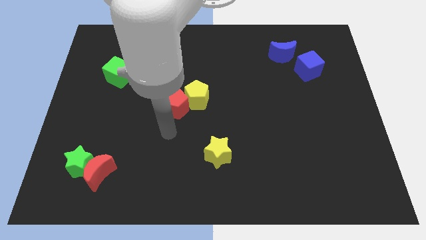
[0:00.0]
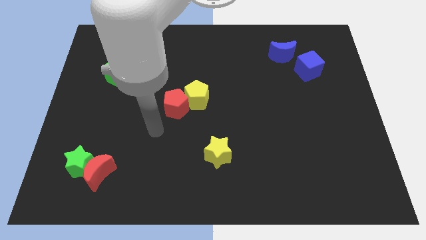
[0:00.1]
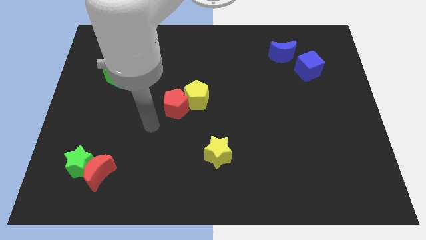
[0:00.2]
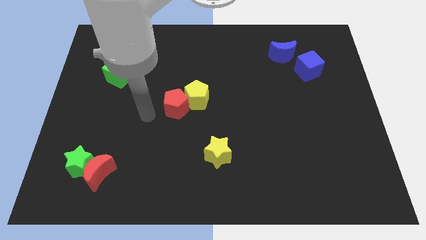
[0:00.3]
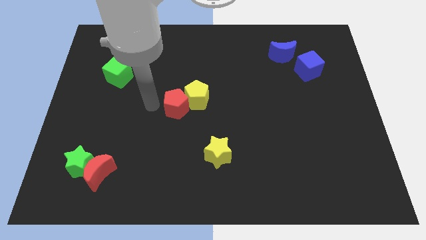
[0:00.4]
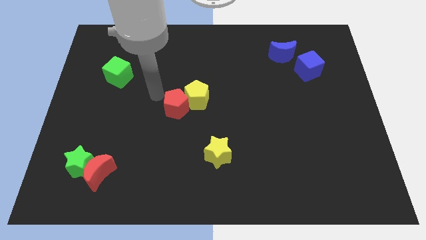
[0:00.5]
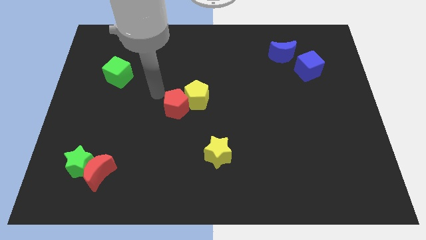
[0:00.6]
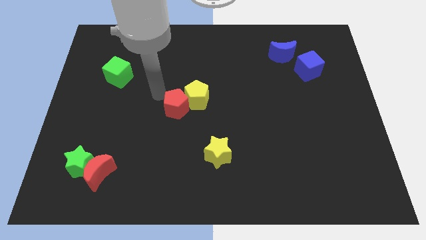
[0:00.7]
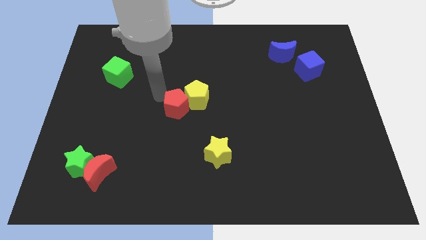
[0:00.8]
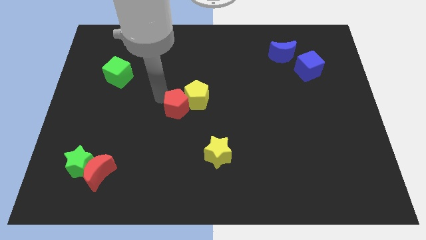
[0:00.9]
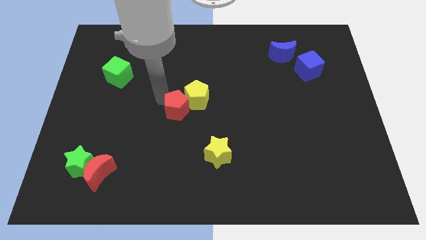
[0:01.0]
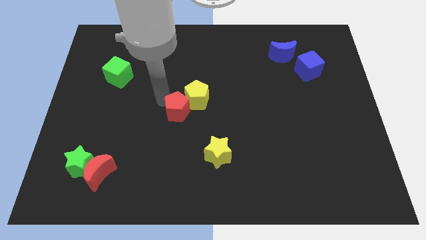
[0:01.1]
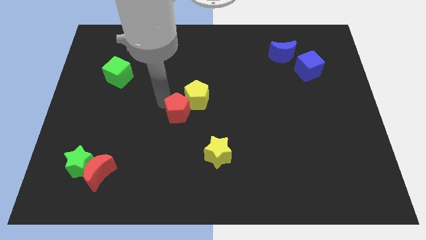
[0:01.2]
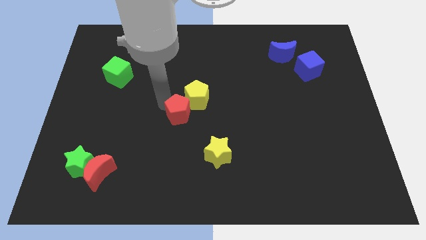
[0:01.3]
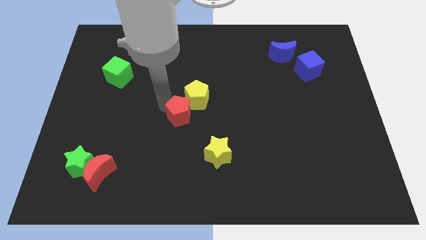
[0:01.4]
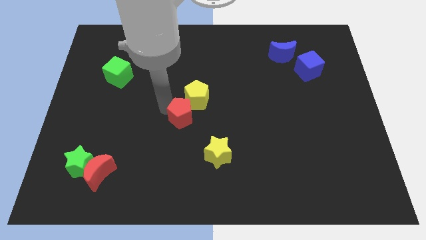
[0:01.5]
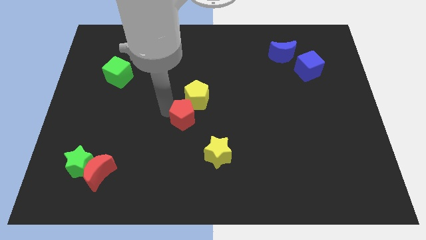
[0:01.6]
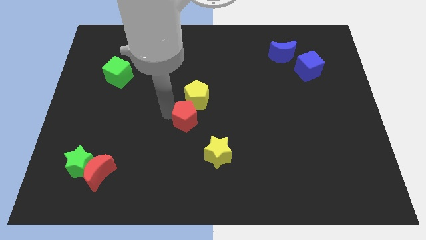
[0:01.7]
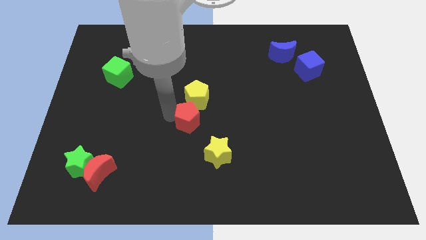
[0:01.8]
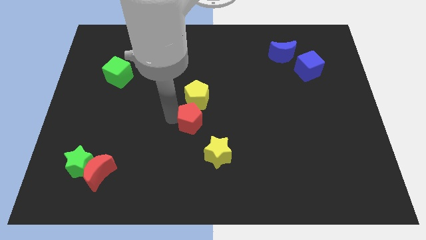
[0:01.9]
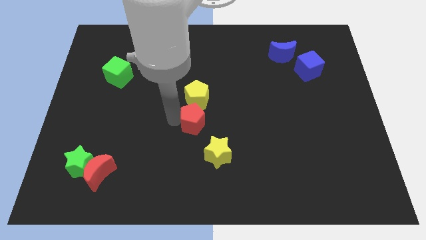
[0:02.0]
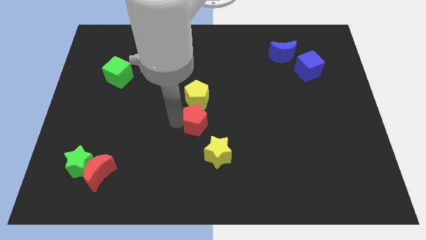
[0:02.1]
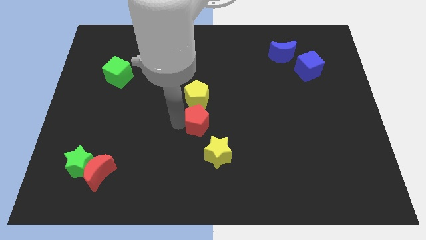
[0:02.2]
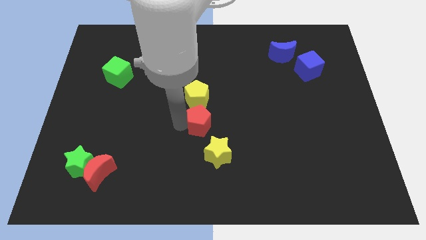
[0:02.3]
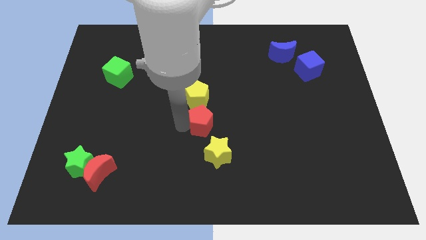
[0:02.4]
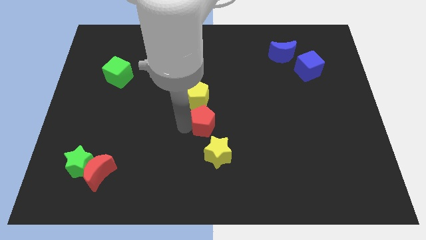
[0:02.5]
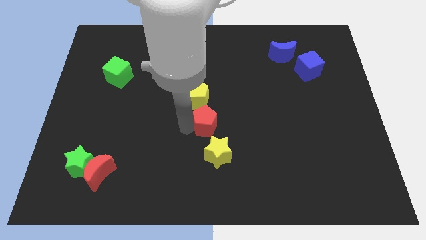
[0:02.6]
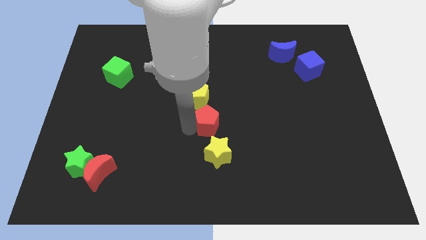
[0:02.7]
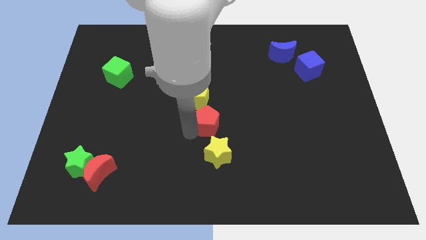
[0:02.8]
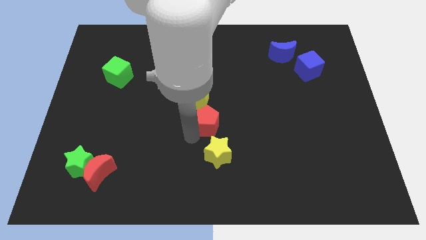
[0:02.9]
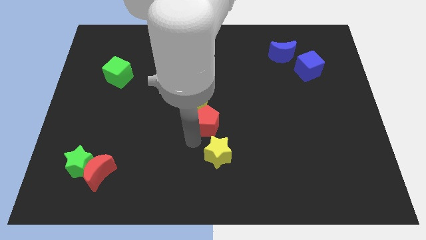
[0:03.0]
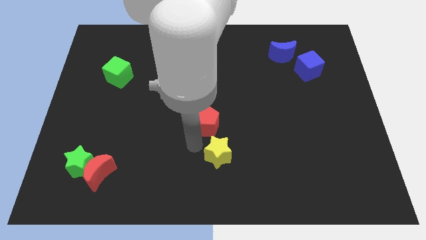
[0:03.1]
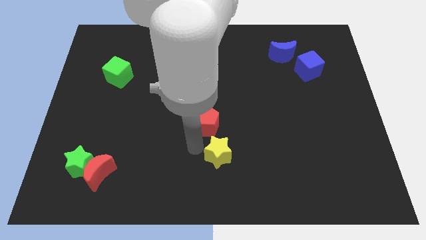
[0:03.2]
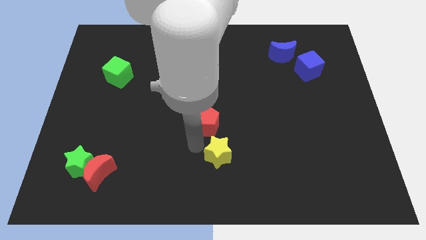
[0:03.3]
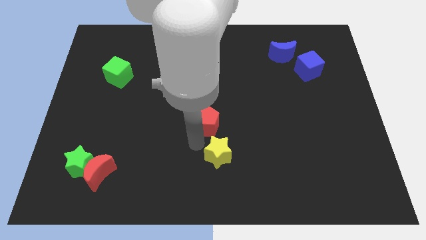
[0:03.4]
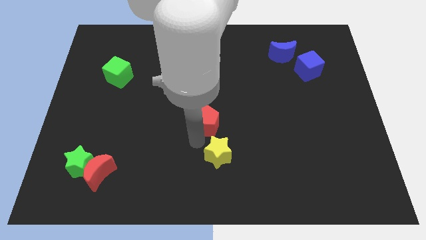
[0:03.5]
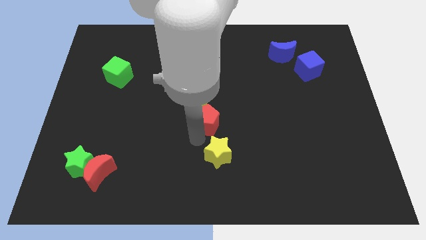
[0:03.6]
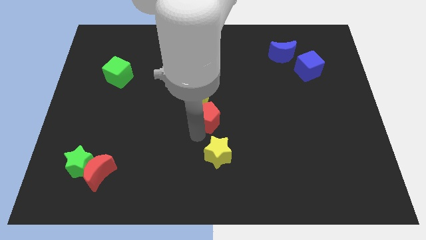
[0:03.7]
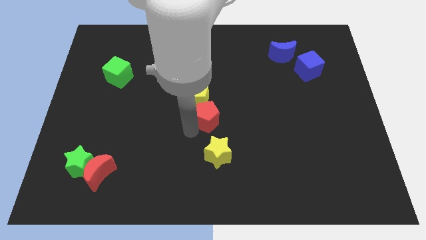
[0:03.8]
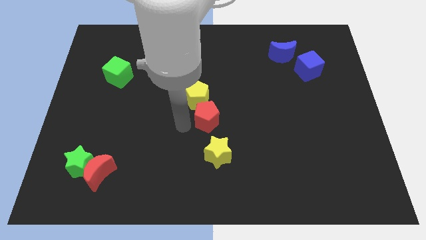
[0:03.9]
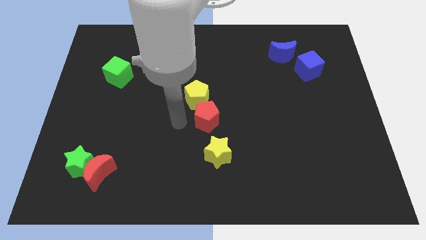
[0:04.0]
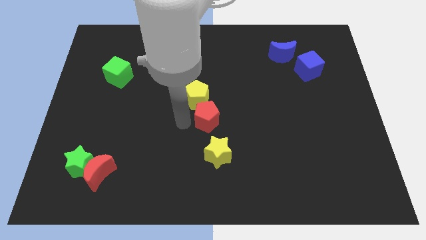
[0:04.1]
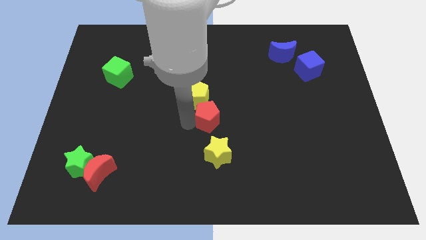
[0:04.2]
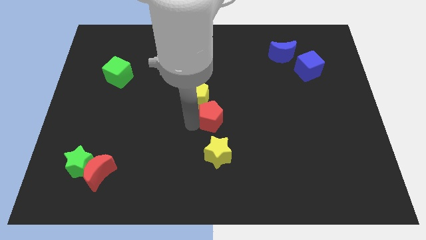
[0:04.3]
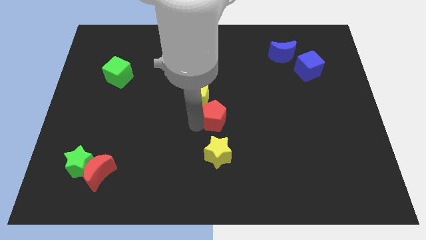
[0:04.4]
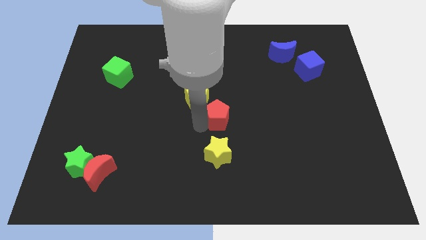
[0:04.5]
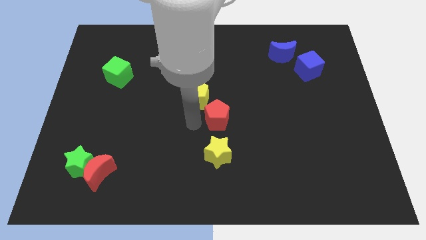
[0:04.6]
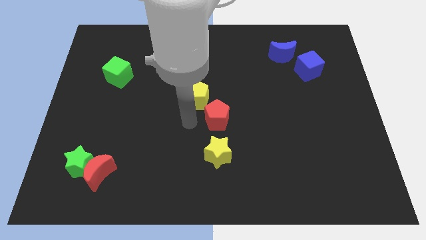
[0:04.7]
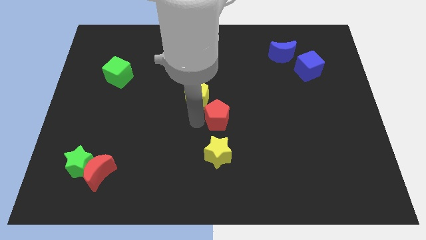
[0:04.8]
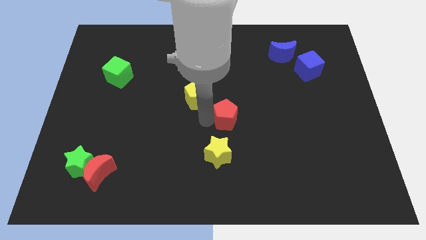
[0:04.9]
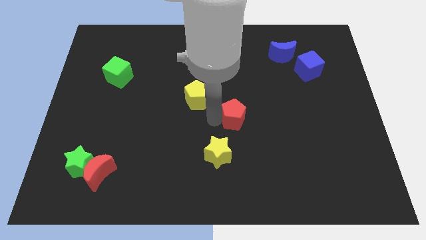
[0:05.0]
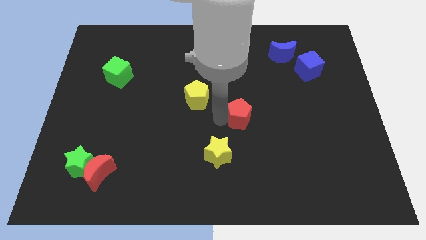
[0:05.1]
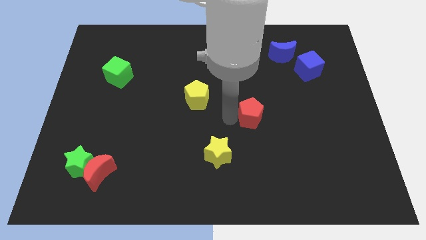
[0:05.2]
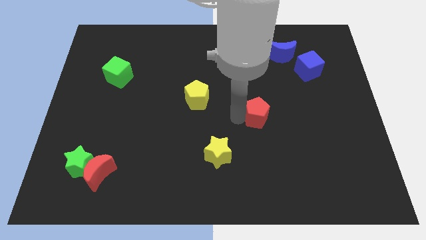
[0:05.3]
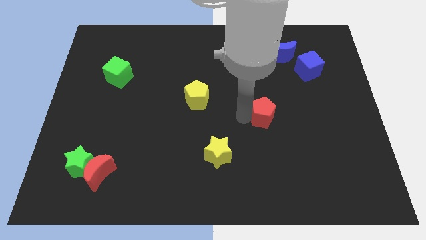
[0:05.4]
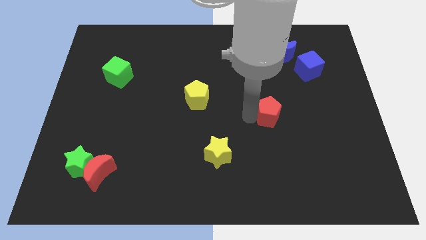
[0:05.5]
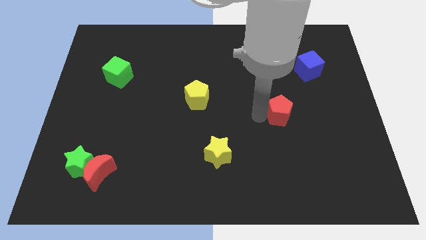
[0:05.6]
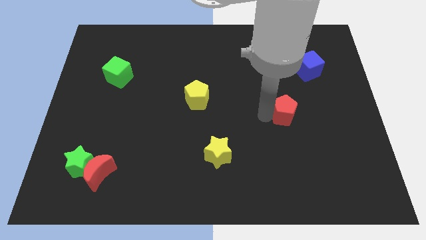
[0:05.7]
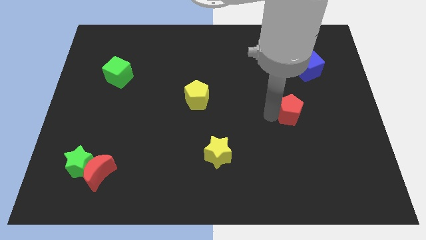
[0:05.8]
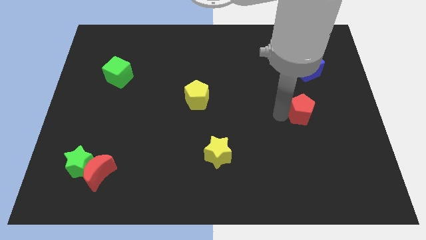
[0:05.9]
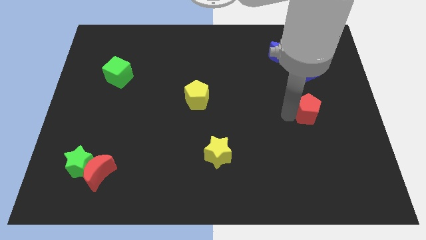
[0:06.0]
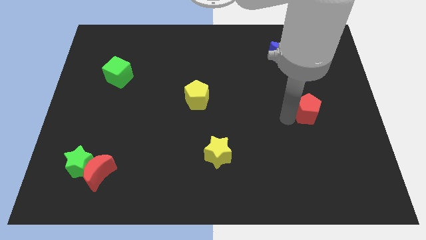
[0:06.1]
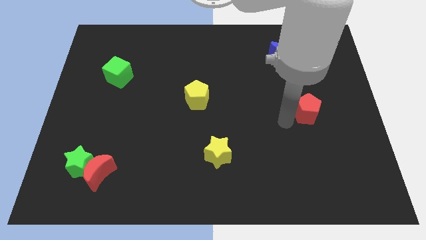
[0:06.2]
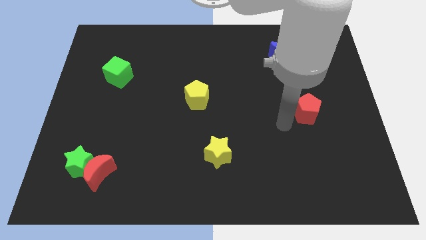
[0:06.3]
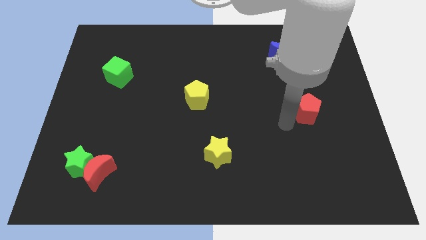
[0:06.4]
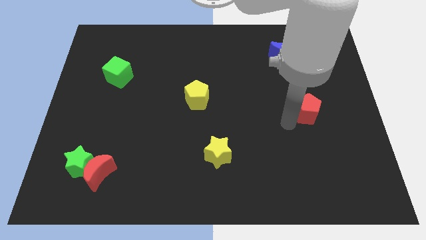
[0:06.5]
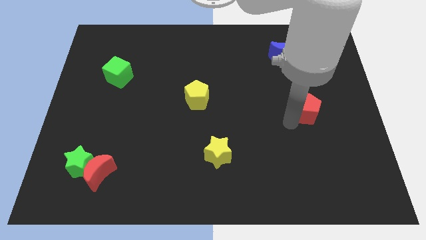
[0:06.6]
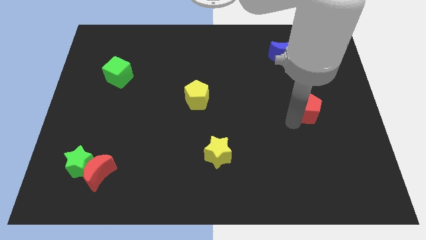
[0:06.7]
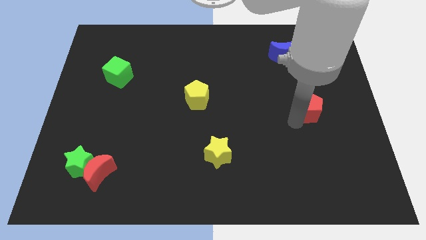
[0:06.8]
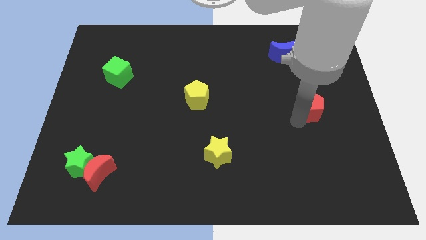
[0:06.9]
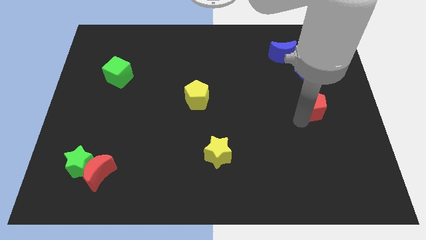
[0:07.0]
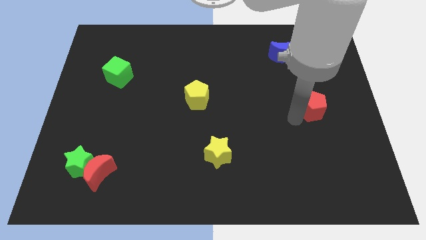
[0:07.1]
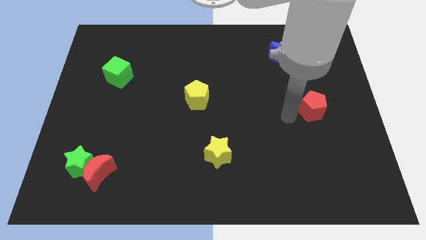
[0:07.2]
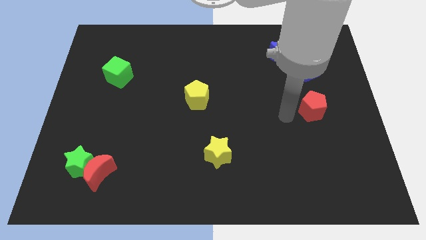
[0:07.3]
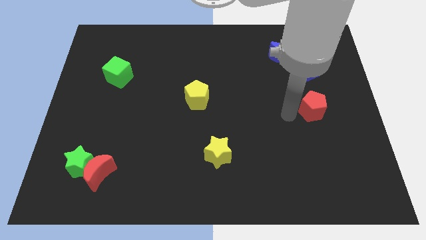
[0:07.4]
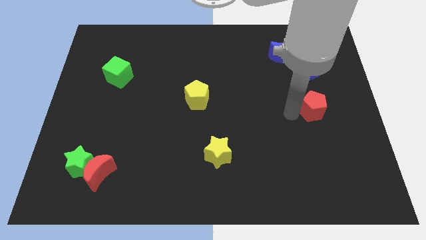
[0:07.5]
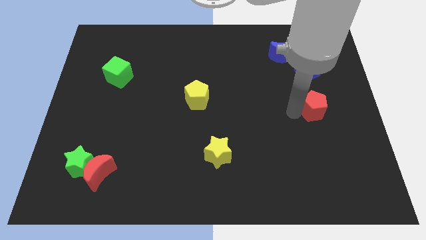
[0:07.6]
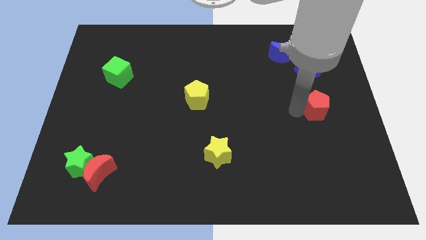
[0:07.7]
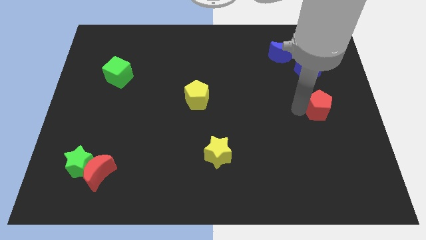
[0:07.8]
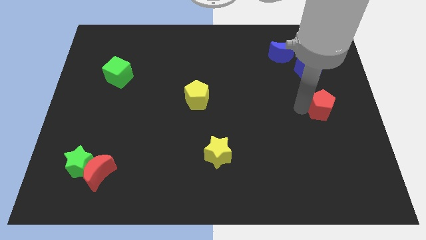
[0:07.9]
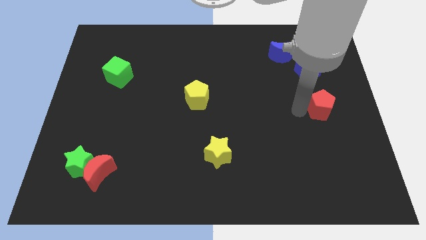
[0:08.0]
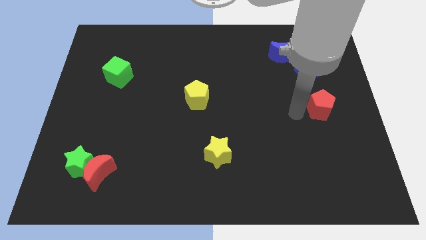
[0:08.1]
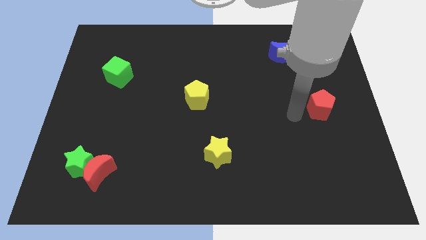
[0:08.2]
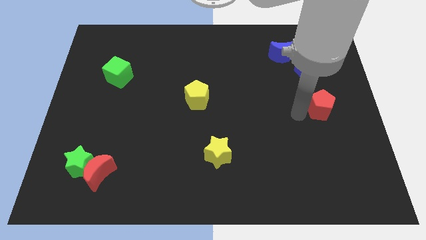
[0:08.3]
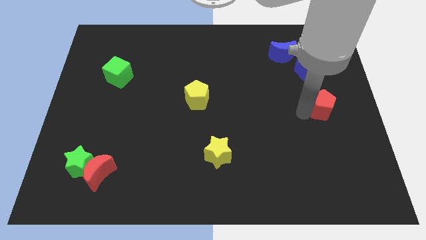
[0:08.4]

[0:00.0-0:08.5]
slide the red pentagon to the right side of the board
